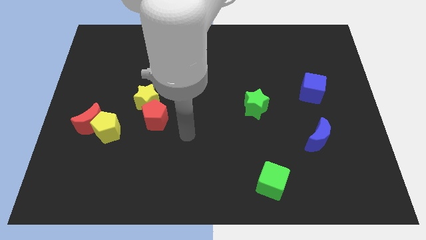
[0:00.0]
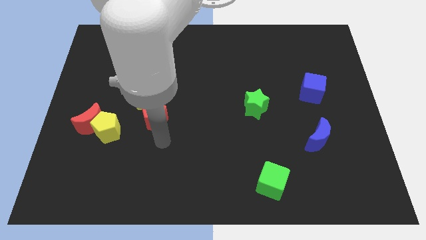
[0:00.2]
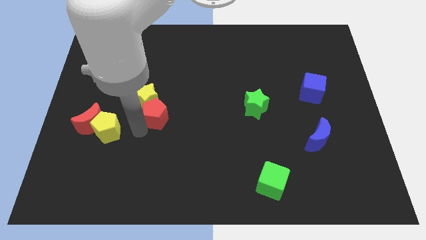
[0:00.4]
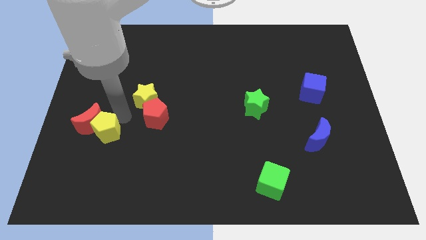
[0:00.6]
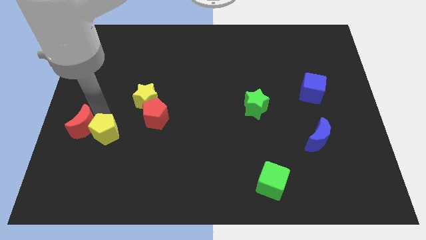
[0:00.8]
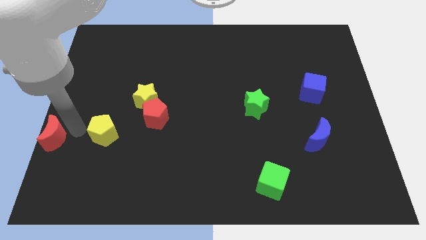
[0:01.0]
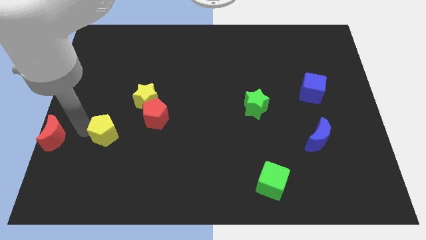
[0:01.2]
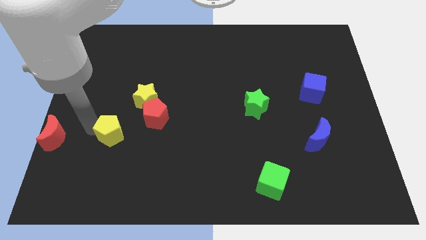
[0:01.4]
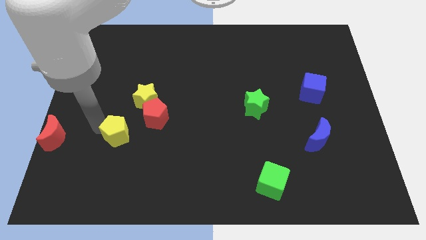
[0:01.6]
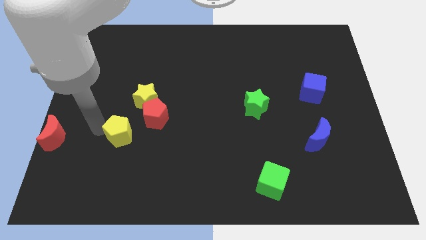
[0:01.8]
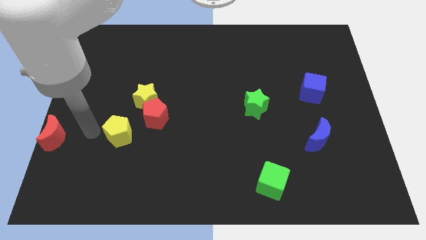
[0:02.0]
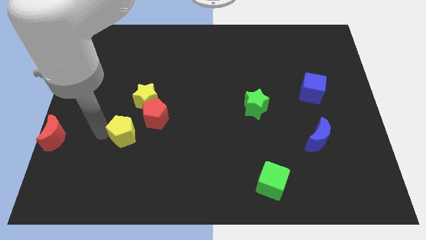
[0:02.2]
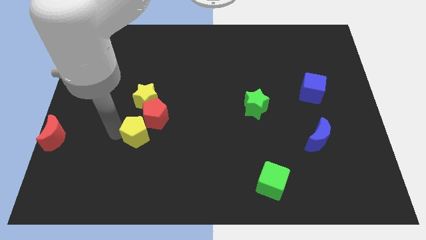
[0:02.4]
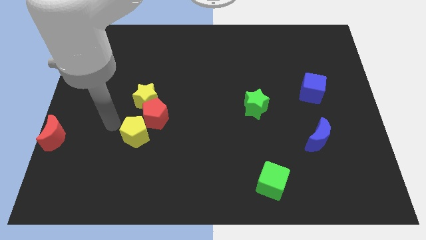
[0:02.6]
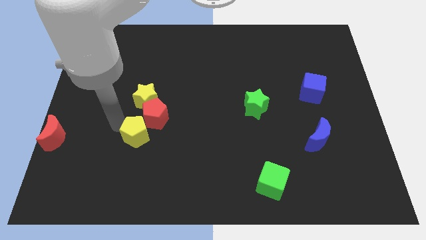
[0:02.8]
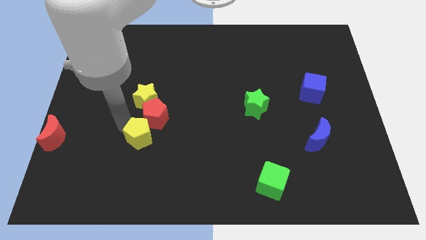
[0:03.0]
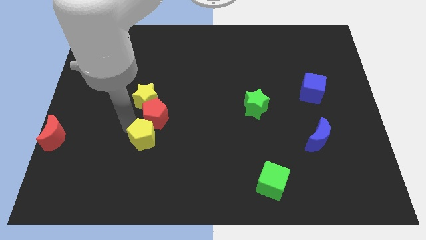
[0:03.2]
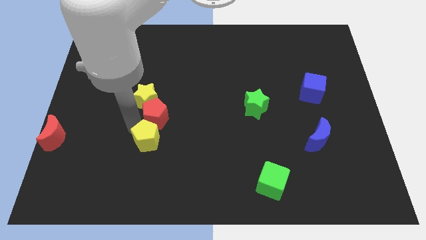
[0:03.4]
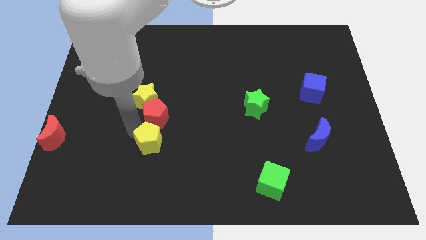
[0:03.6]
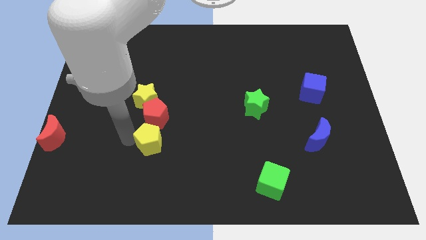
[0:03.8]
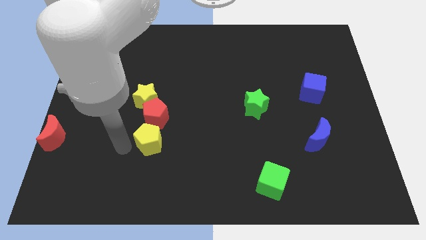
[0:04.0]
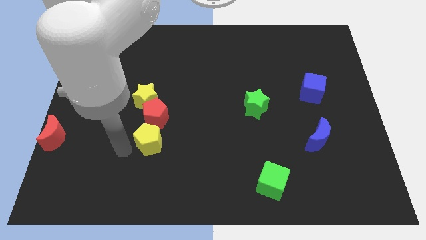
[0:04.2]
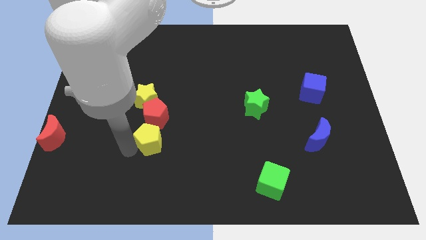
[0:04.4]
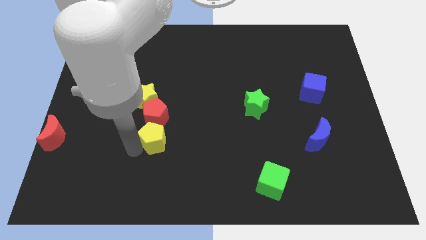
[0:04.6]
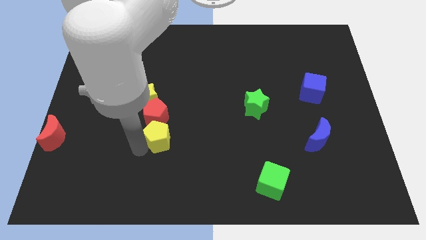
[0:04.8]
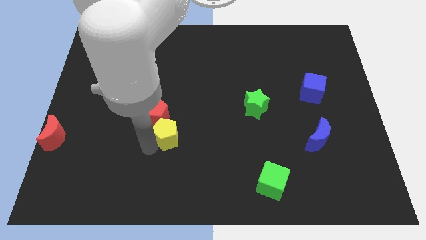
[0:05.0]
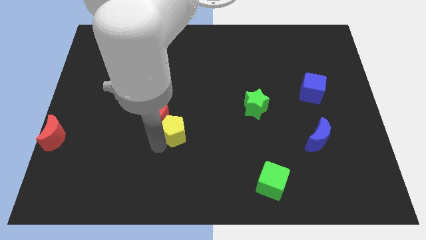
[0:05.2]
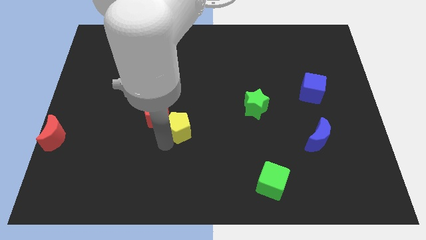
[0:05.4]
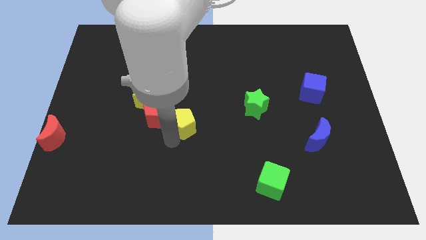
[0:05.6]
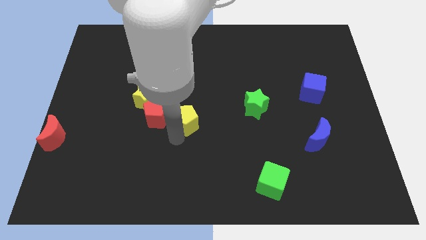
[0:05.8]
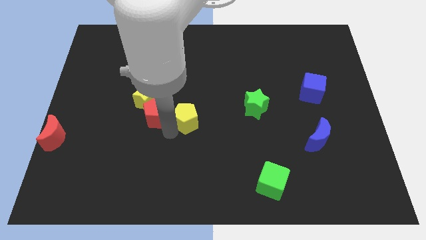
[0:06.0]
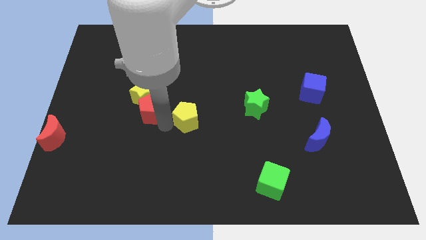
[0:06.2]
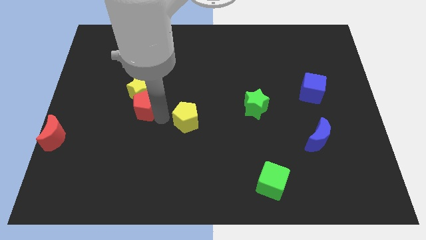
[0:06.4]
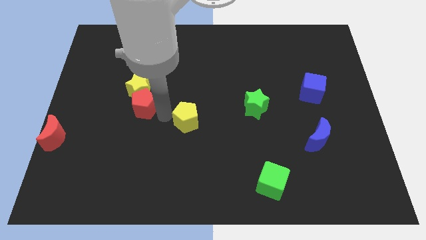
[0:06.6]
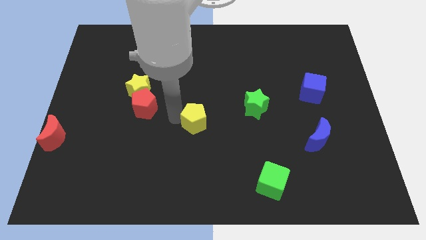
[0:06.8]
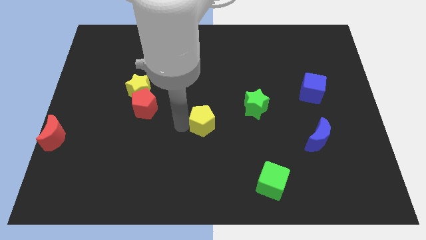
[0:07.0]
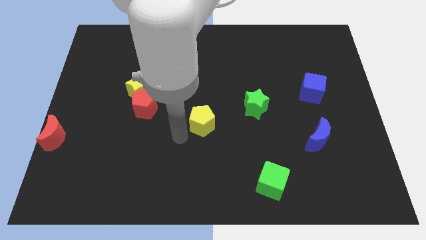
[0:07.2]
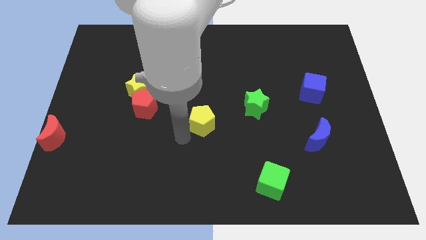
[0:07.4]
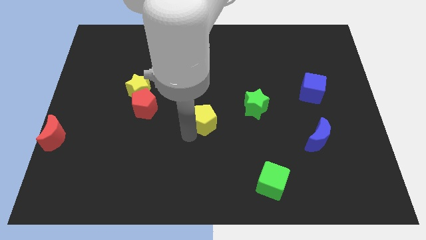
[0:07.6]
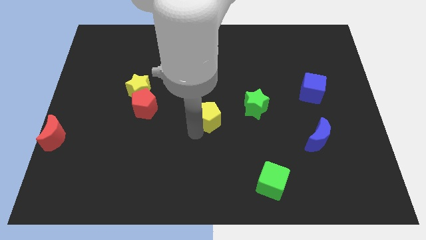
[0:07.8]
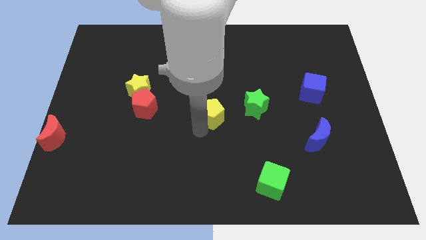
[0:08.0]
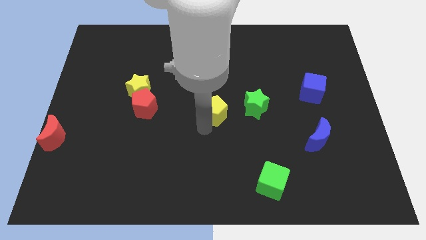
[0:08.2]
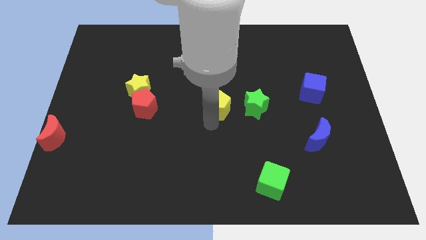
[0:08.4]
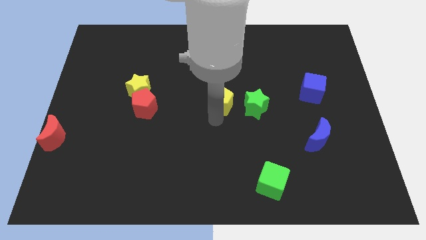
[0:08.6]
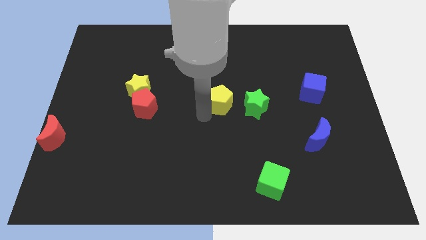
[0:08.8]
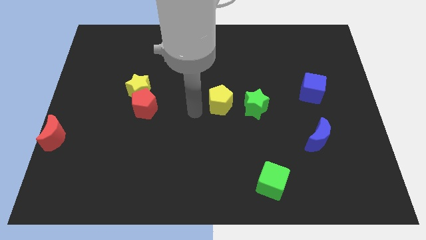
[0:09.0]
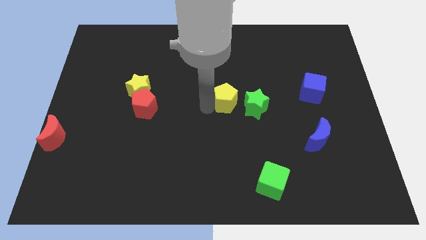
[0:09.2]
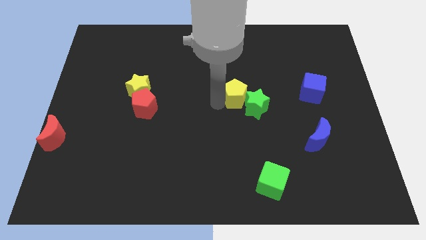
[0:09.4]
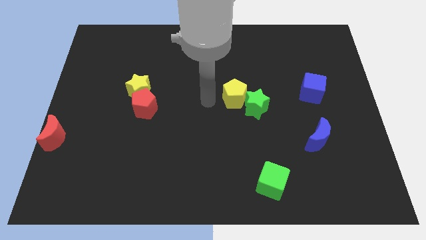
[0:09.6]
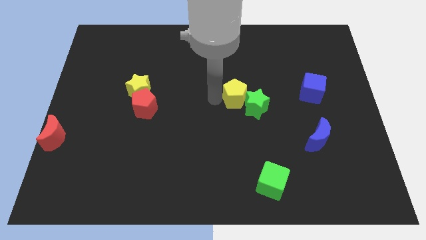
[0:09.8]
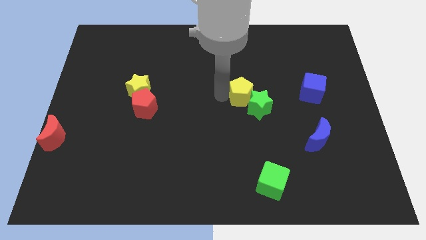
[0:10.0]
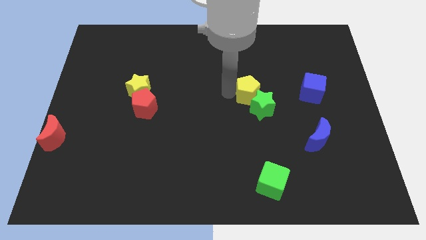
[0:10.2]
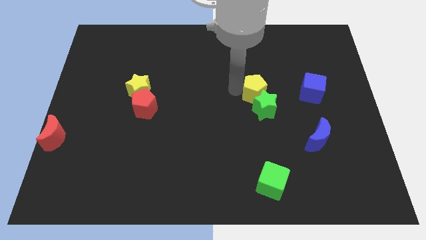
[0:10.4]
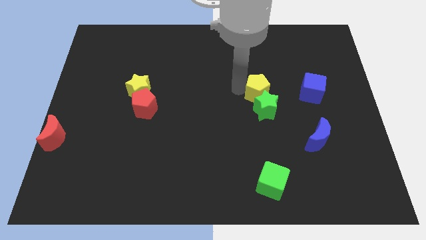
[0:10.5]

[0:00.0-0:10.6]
slide the yellow pentagon to the top right side of the green star

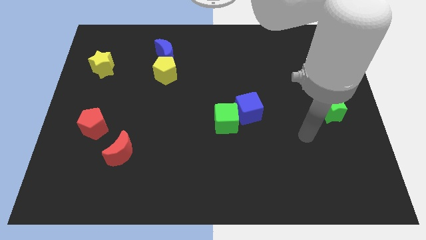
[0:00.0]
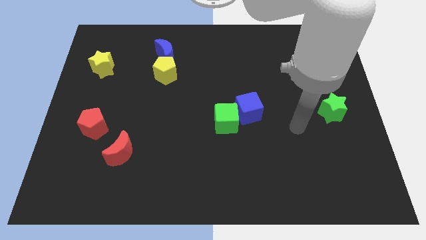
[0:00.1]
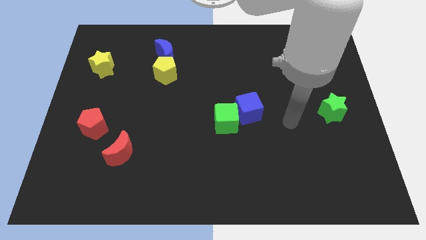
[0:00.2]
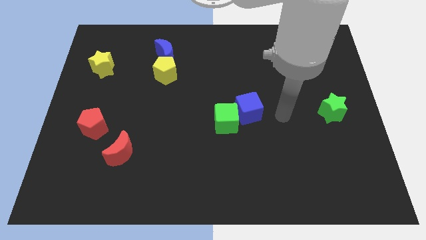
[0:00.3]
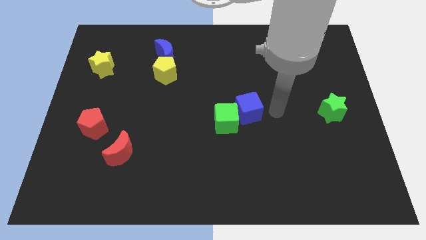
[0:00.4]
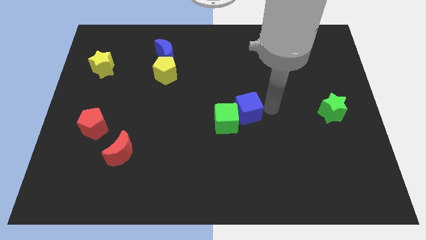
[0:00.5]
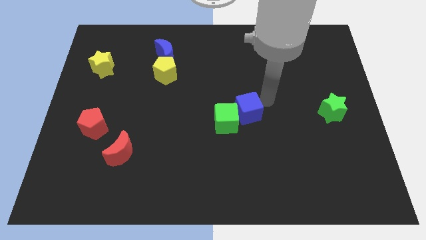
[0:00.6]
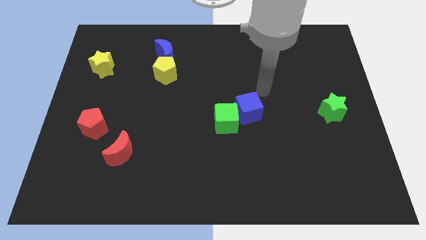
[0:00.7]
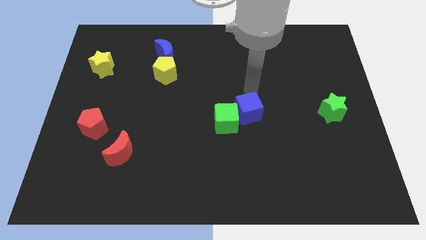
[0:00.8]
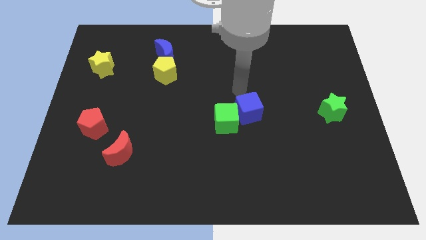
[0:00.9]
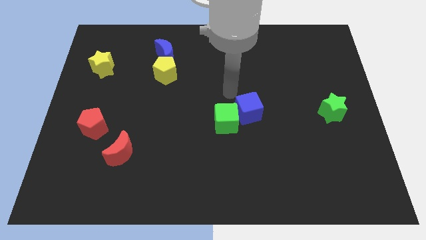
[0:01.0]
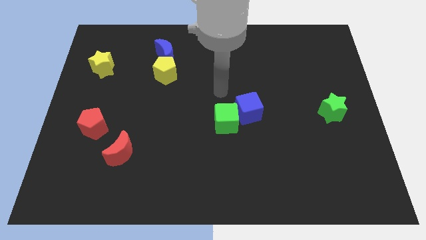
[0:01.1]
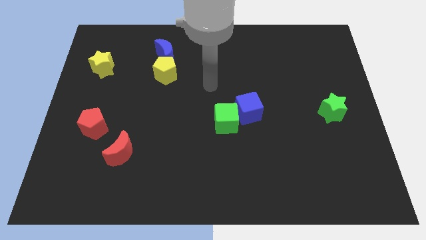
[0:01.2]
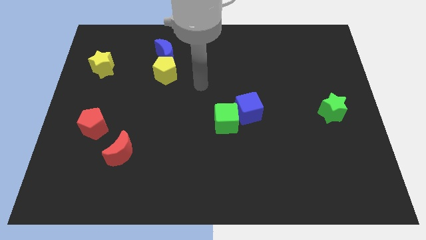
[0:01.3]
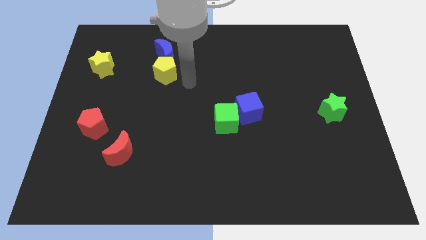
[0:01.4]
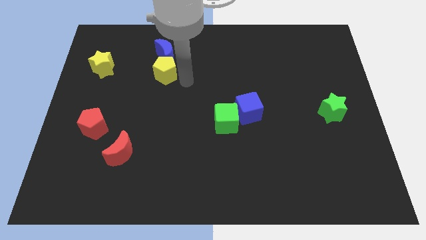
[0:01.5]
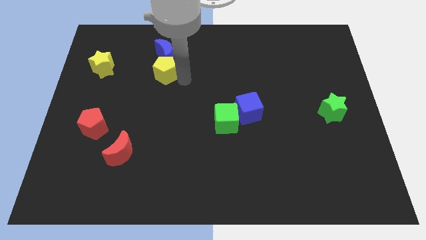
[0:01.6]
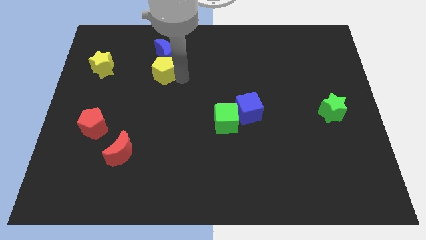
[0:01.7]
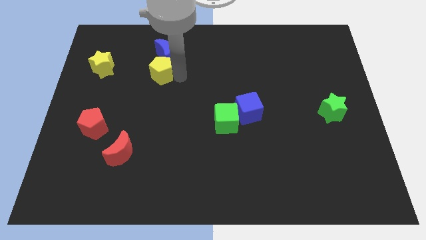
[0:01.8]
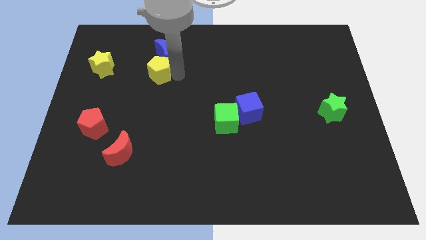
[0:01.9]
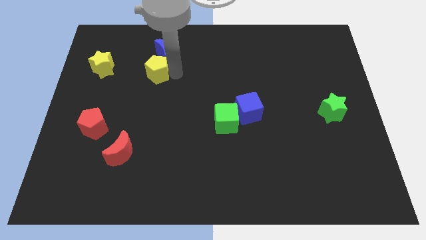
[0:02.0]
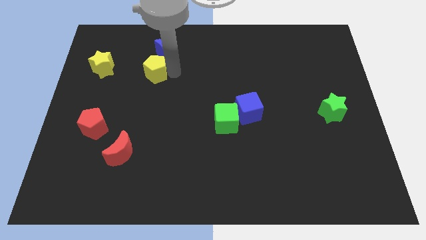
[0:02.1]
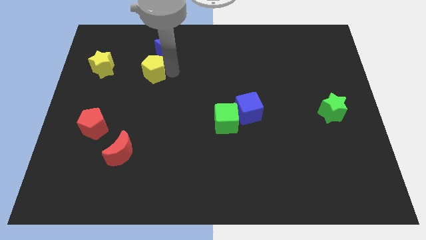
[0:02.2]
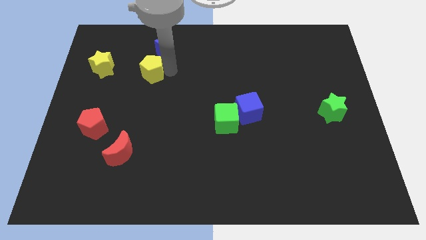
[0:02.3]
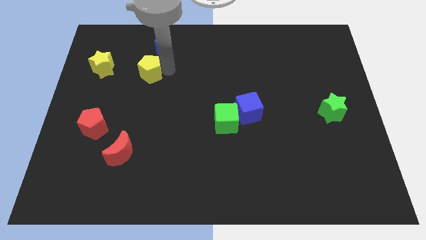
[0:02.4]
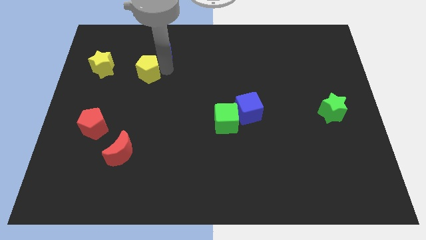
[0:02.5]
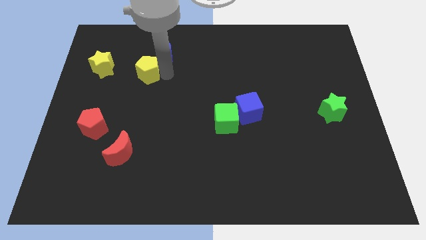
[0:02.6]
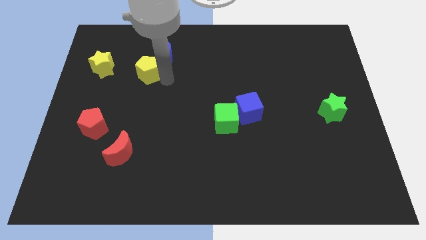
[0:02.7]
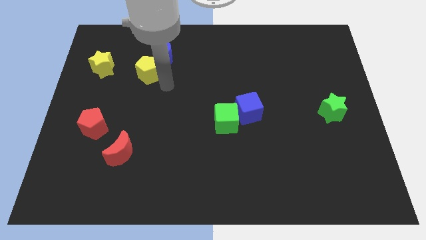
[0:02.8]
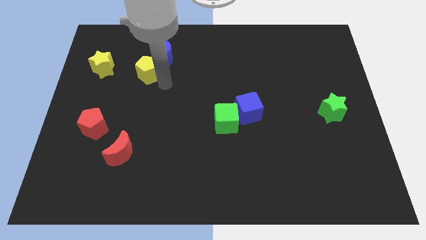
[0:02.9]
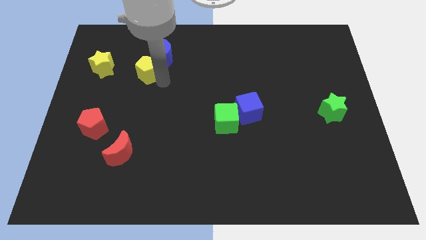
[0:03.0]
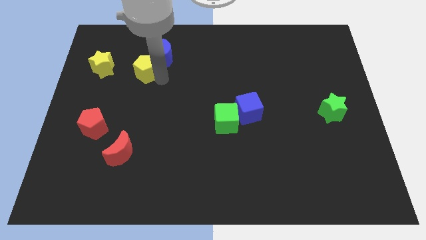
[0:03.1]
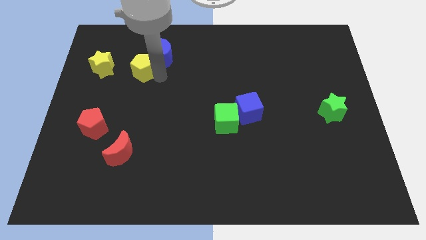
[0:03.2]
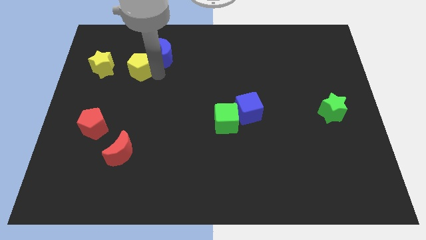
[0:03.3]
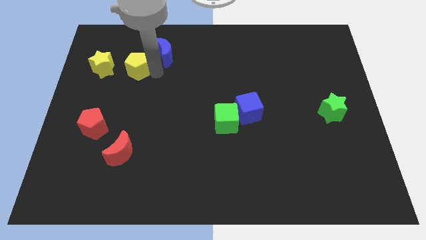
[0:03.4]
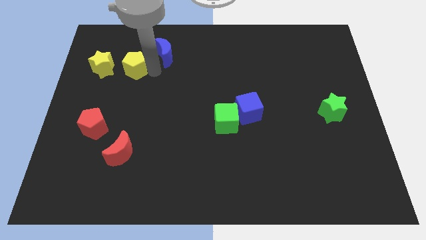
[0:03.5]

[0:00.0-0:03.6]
push the yellow pentagon just left of the blue moon
